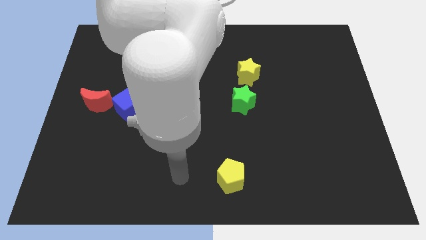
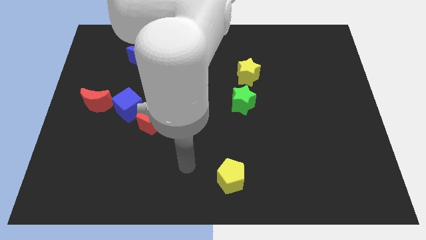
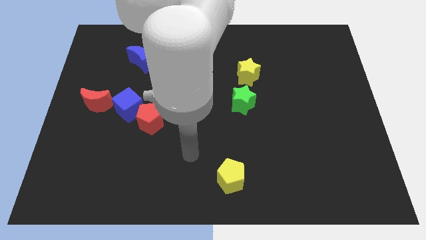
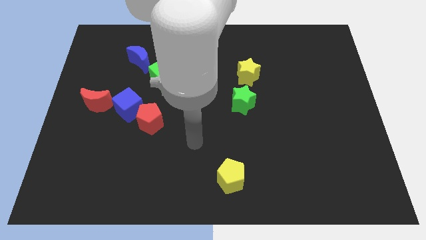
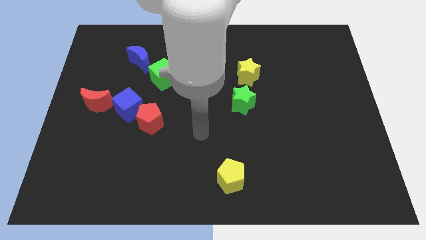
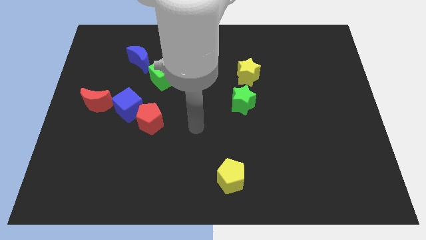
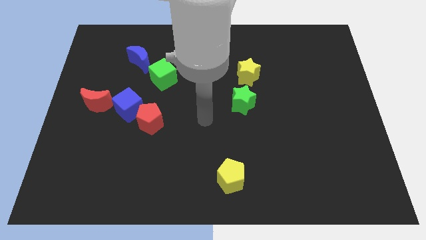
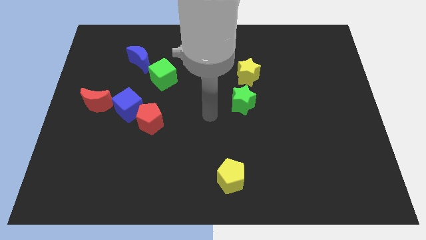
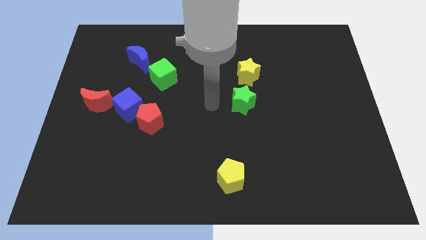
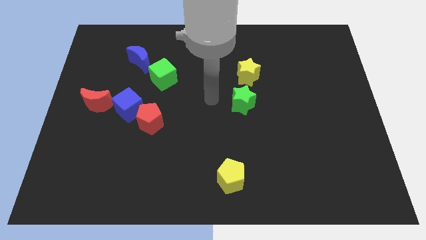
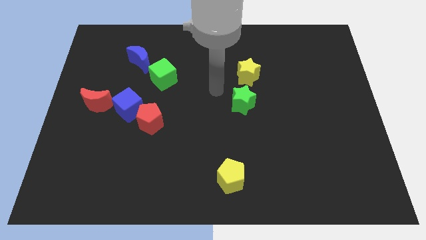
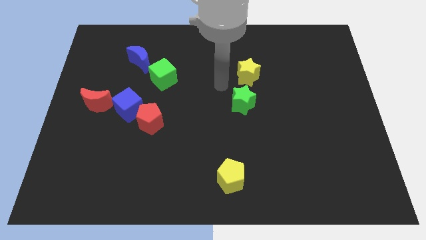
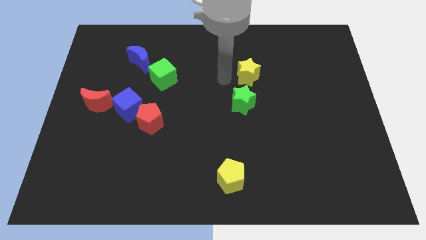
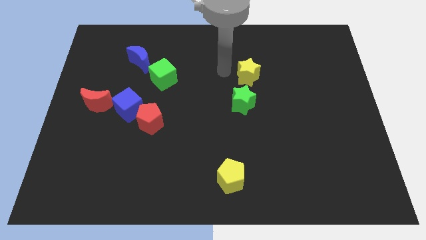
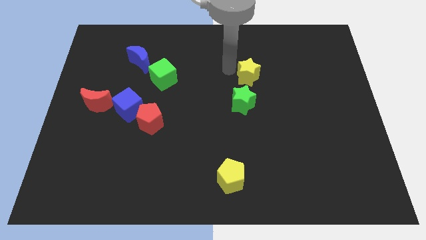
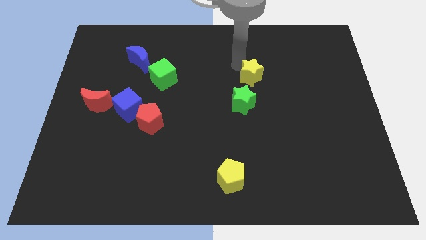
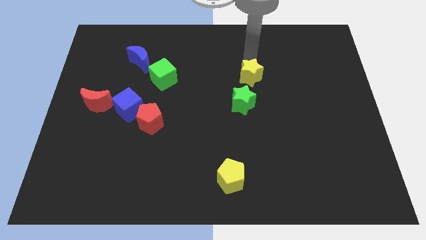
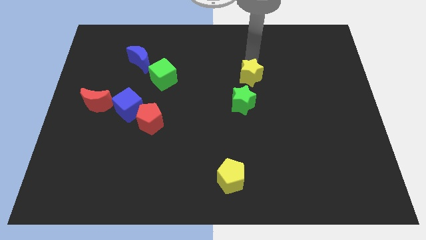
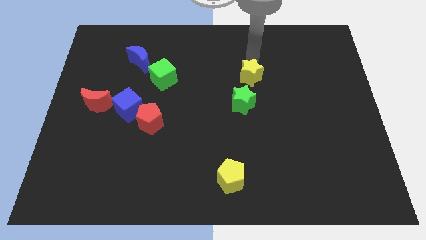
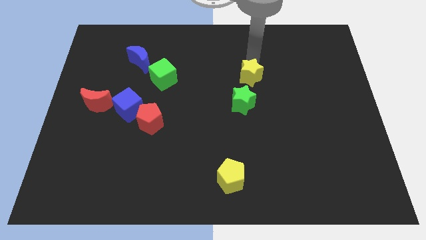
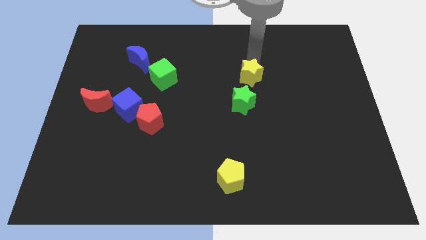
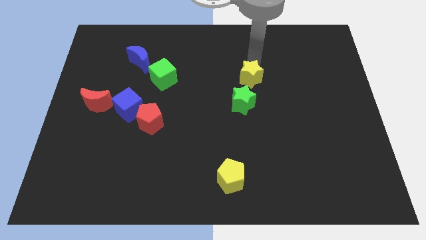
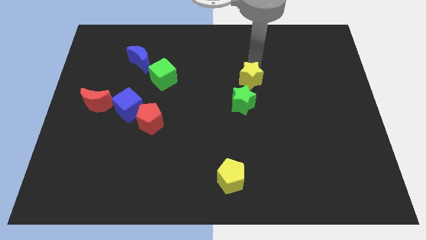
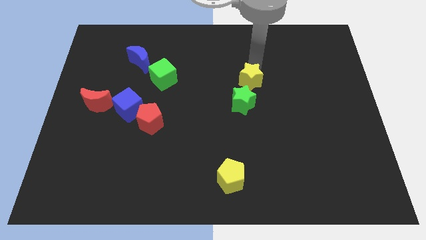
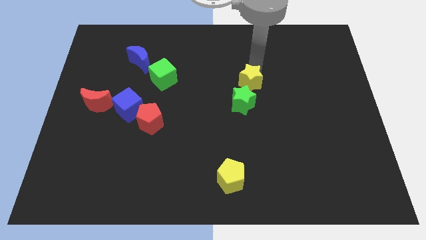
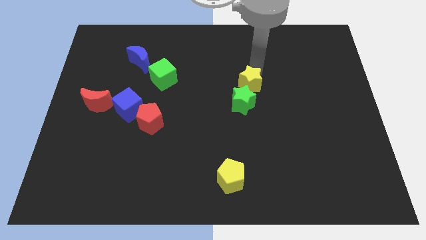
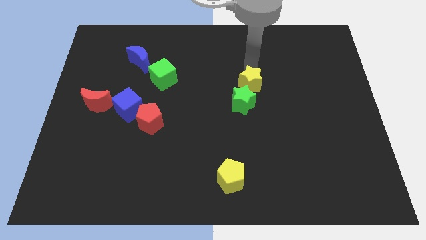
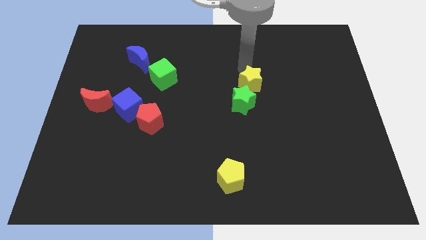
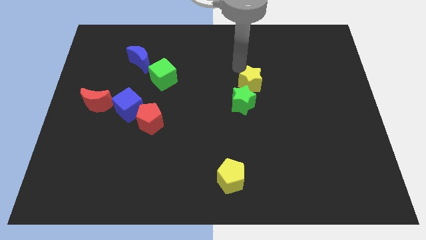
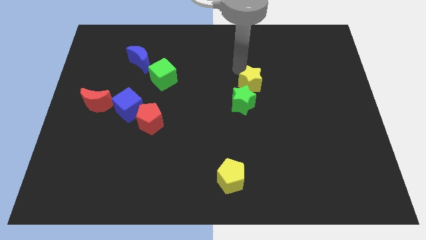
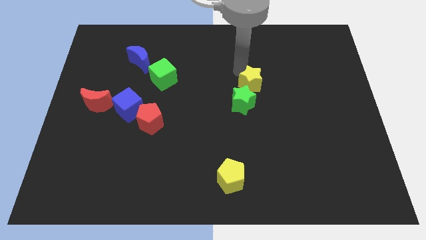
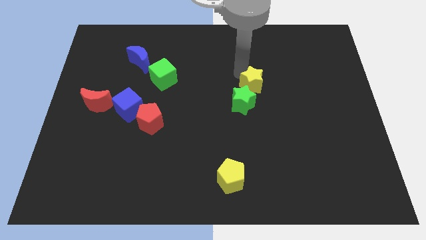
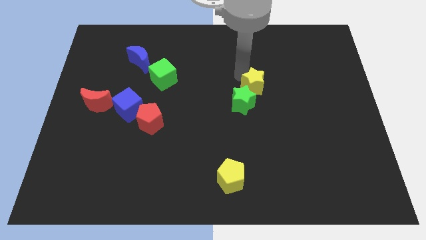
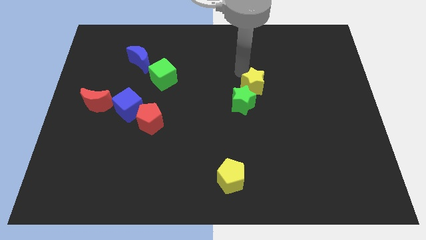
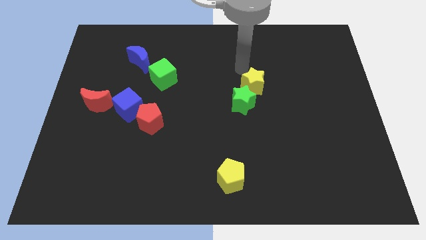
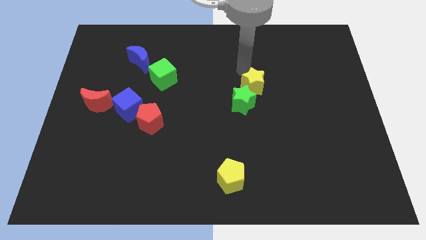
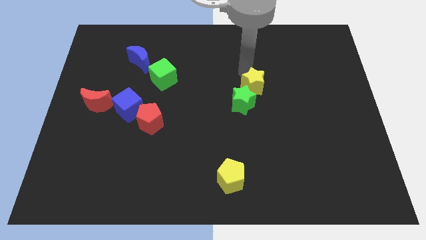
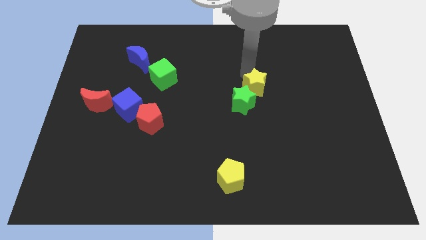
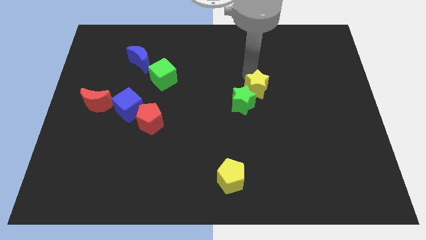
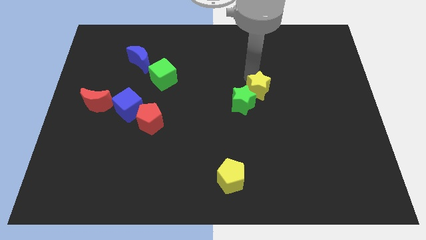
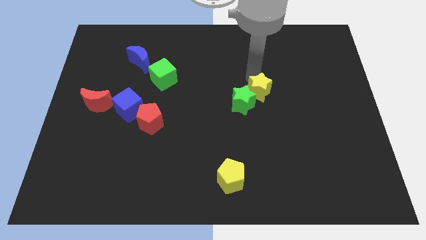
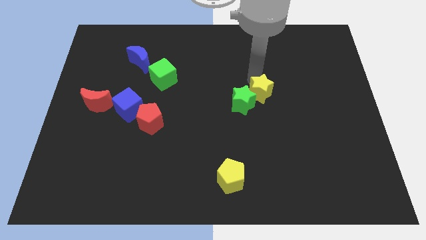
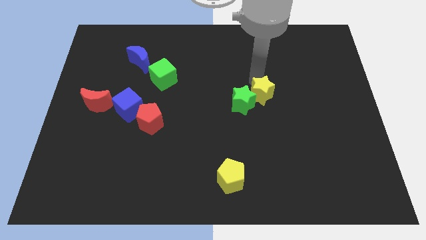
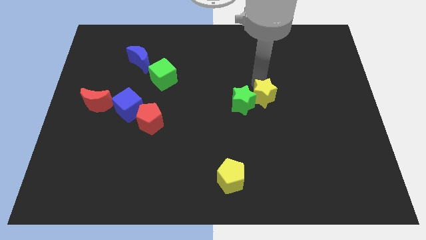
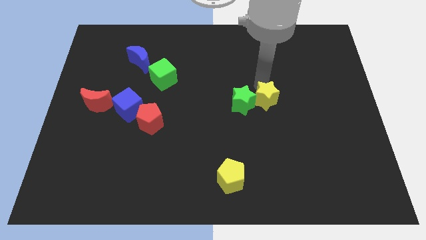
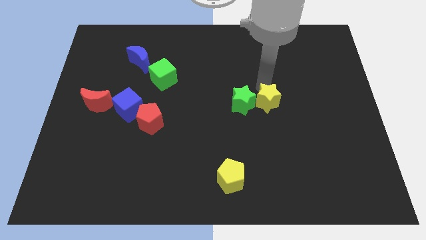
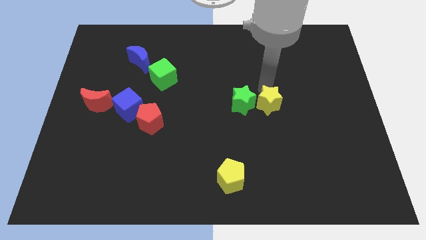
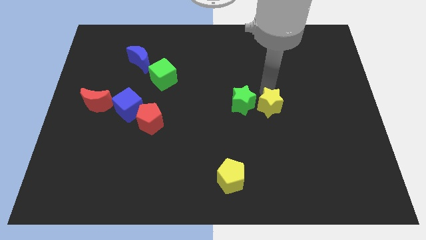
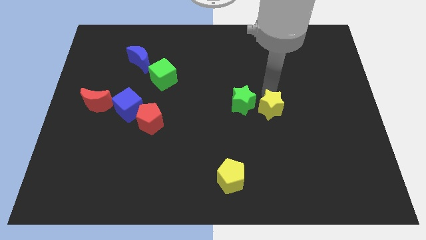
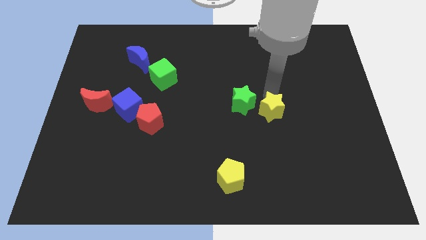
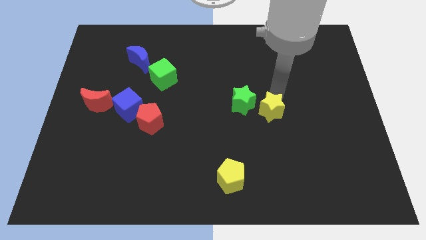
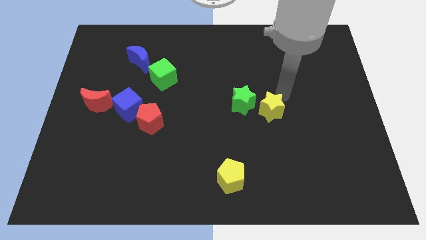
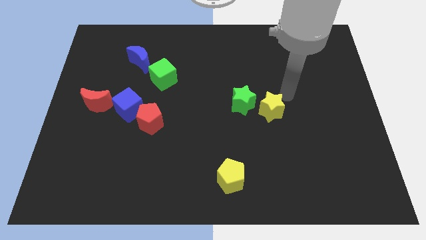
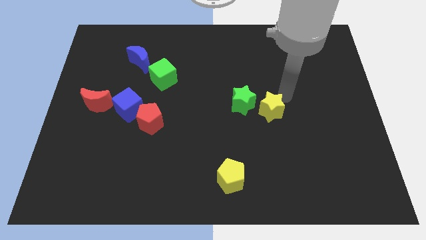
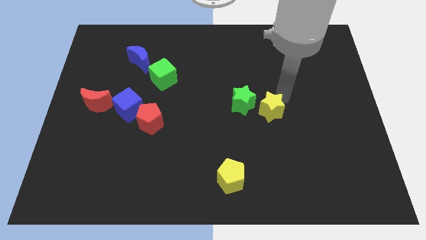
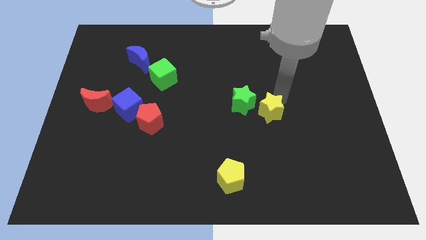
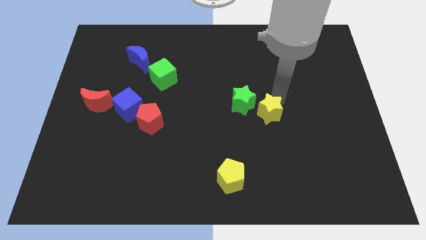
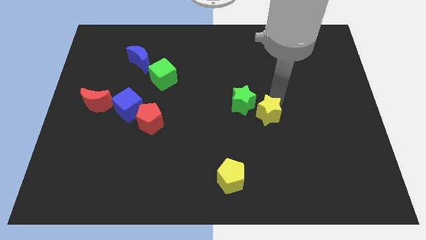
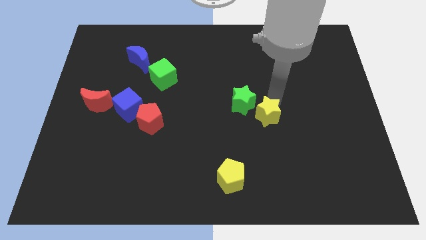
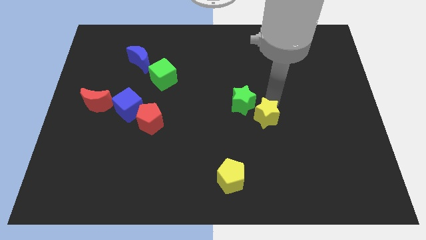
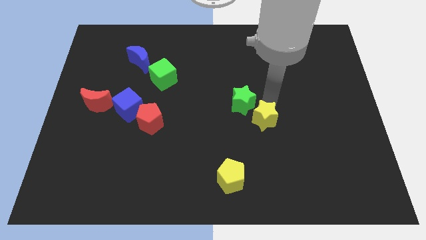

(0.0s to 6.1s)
move the yellow star to the bottom of the green star
